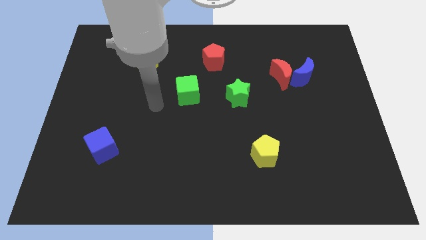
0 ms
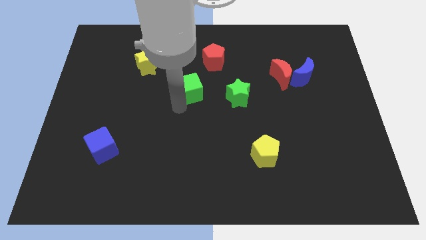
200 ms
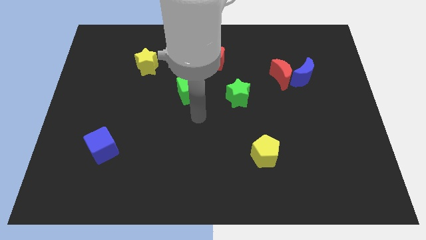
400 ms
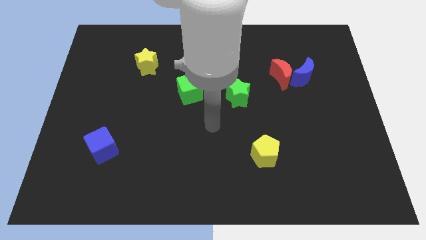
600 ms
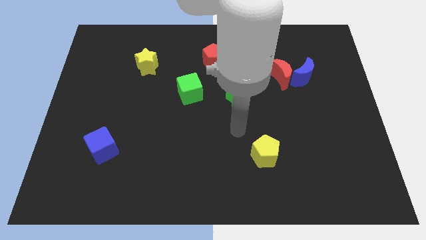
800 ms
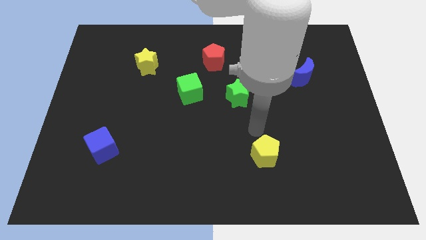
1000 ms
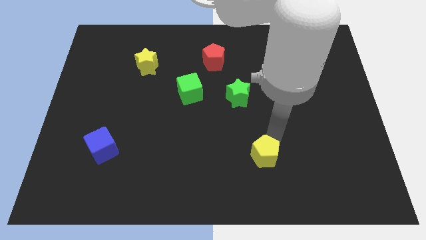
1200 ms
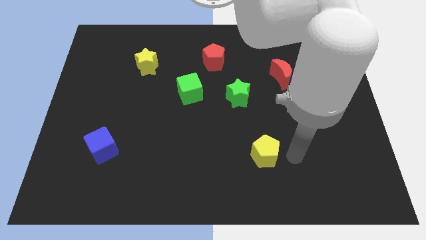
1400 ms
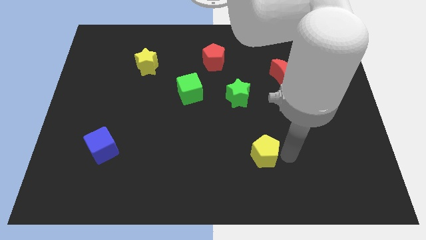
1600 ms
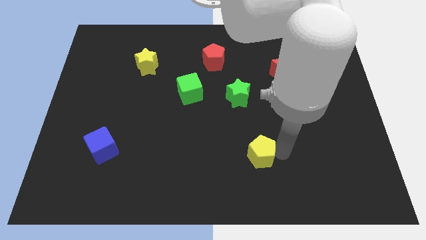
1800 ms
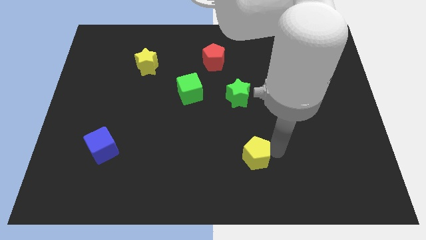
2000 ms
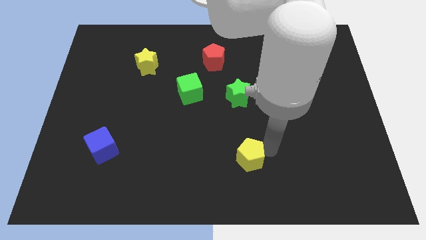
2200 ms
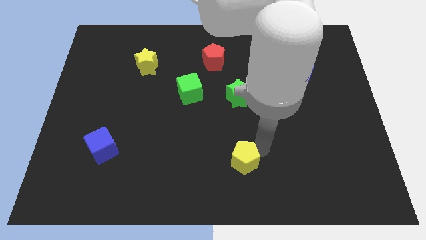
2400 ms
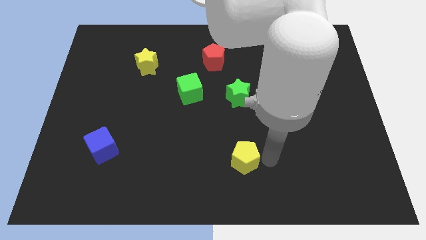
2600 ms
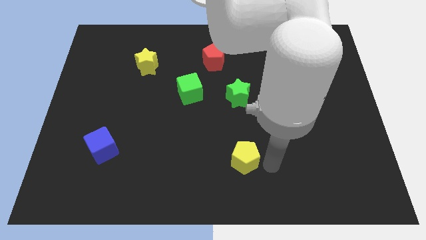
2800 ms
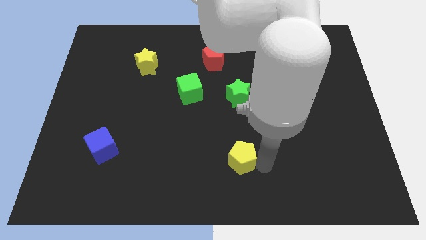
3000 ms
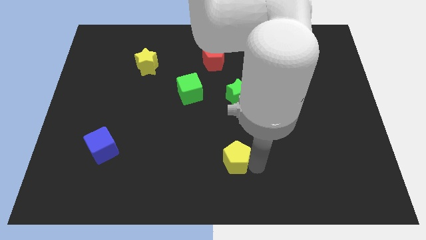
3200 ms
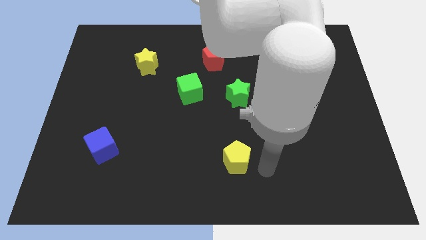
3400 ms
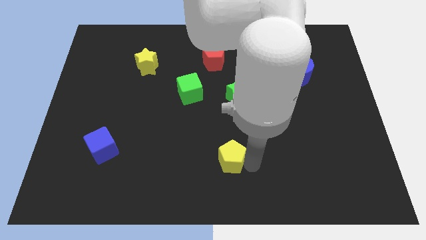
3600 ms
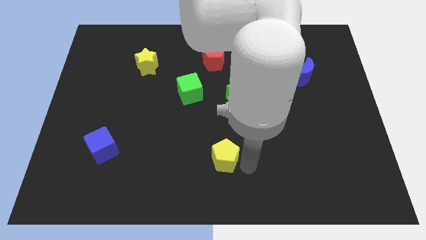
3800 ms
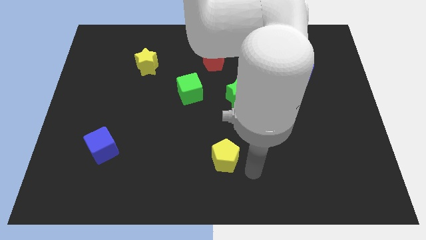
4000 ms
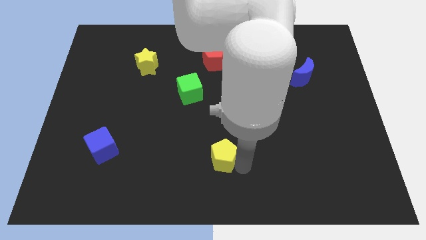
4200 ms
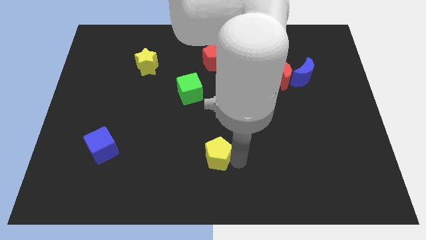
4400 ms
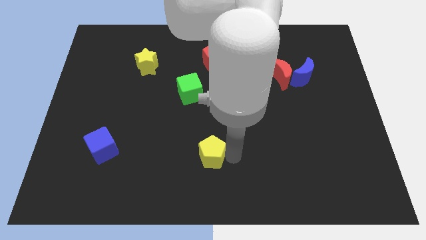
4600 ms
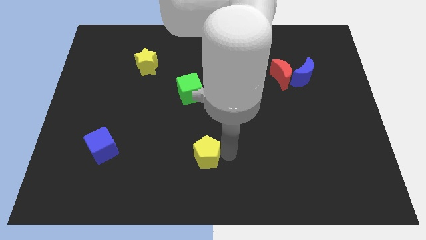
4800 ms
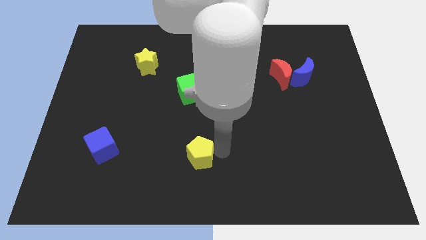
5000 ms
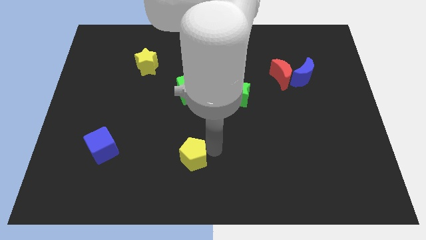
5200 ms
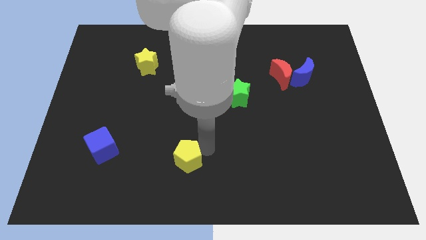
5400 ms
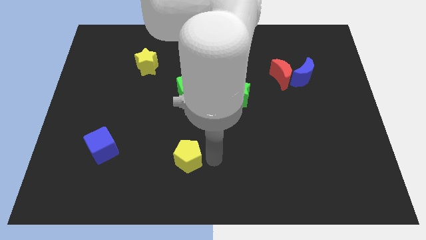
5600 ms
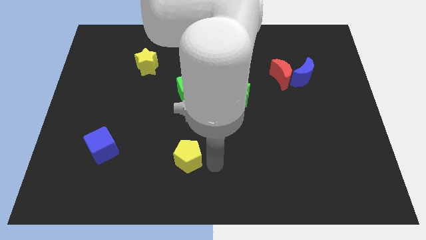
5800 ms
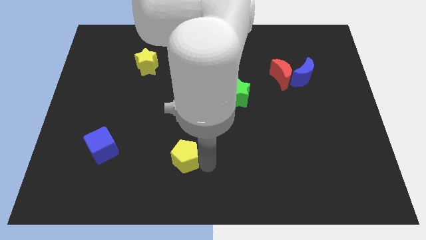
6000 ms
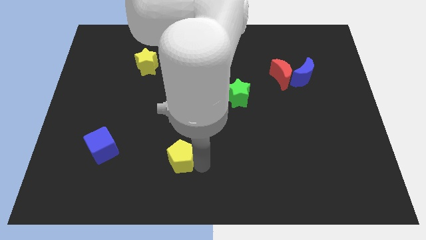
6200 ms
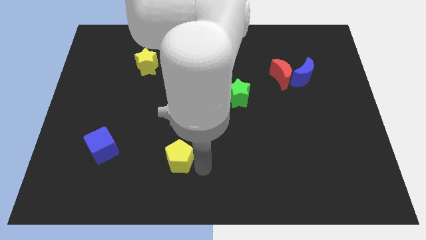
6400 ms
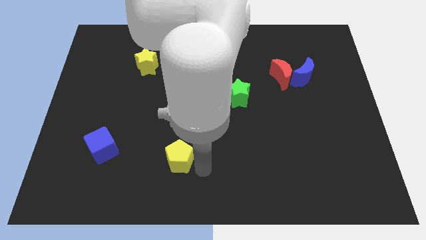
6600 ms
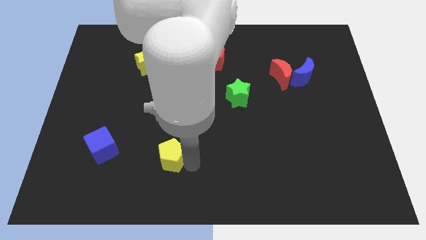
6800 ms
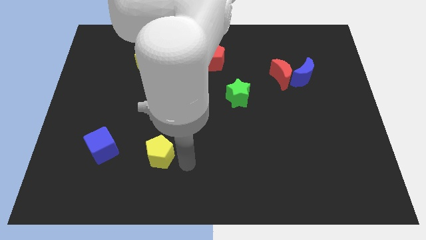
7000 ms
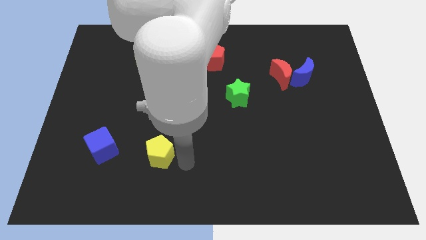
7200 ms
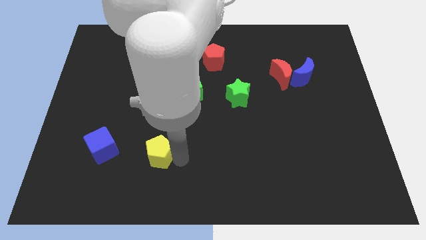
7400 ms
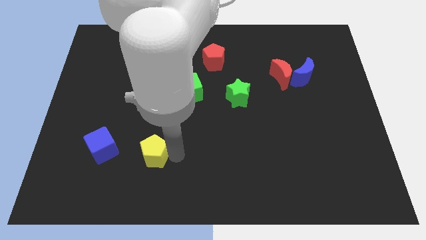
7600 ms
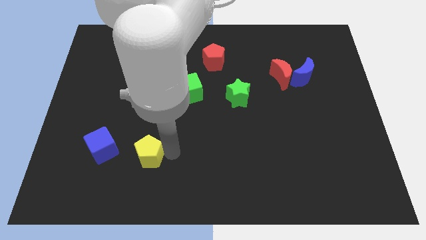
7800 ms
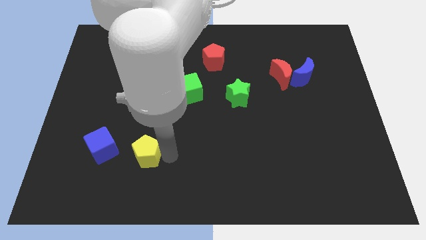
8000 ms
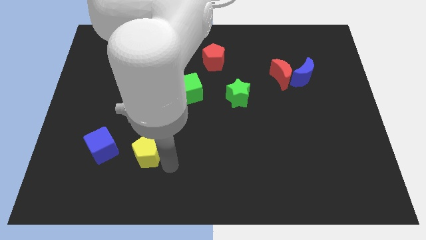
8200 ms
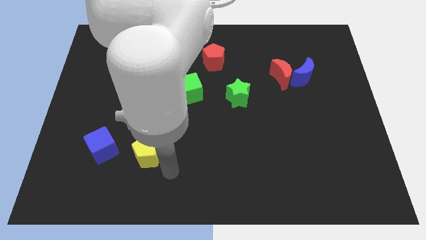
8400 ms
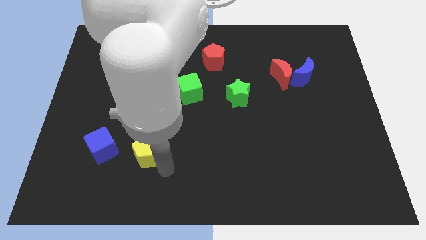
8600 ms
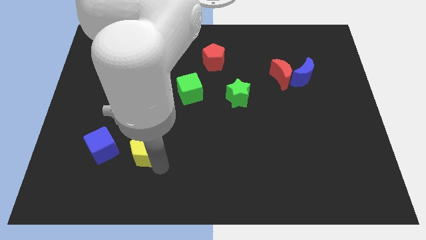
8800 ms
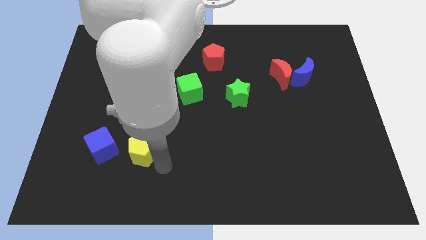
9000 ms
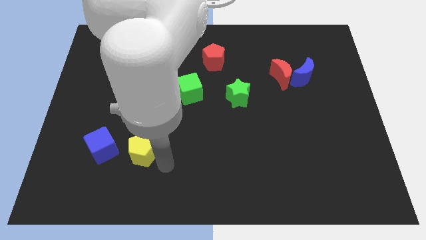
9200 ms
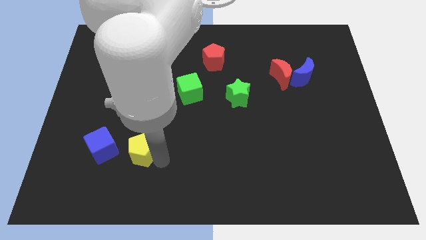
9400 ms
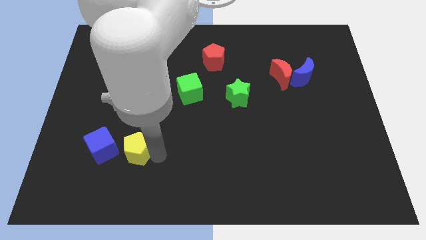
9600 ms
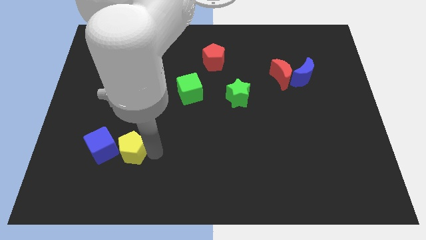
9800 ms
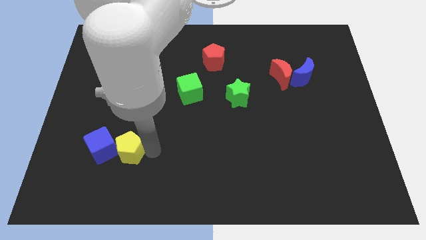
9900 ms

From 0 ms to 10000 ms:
move the yellow pentagon next to the blue cube

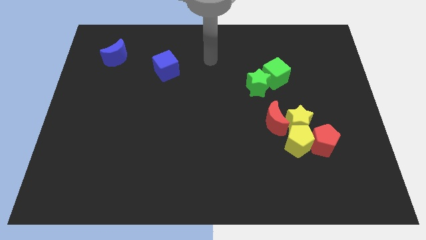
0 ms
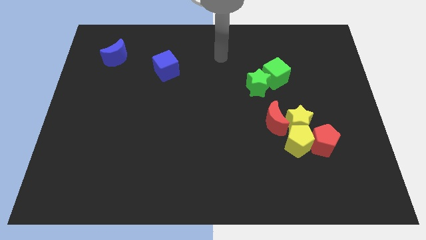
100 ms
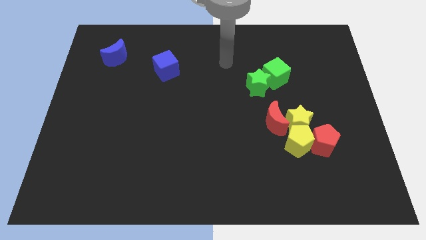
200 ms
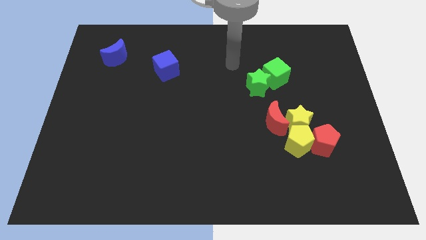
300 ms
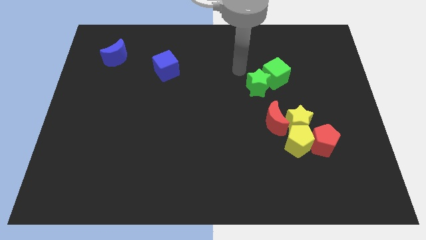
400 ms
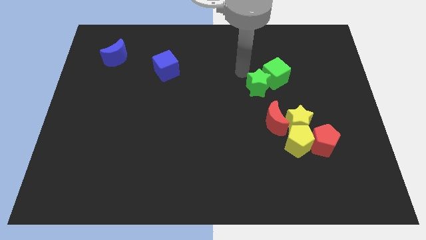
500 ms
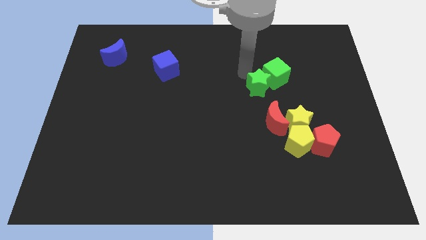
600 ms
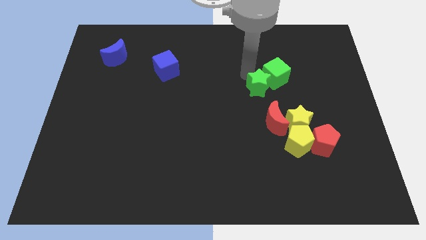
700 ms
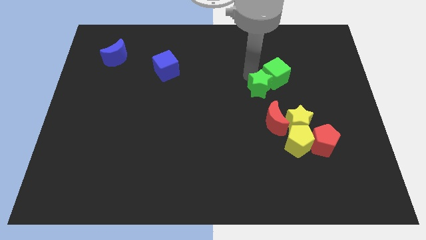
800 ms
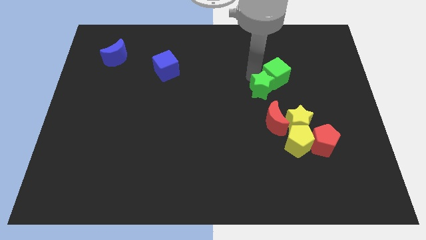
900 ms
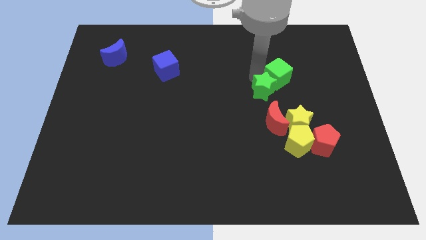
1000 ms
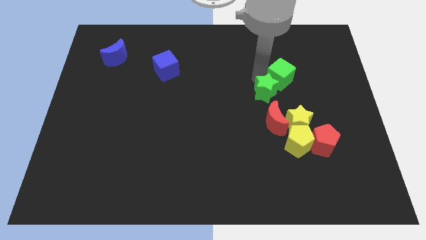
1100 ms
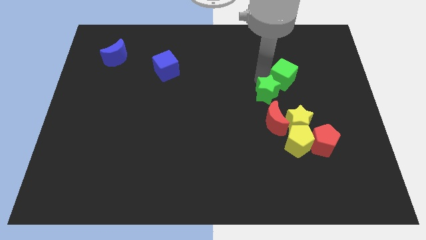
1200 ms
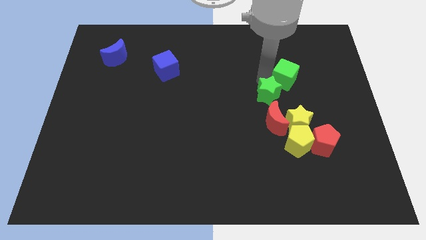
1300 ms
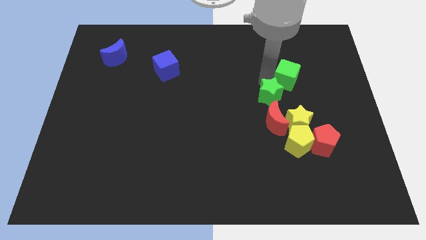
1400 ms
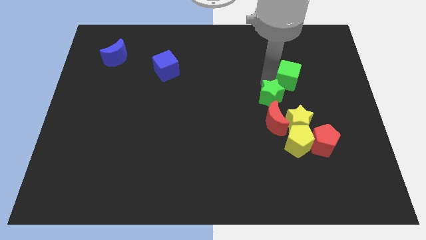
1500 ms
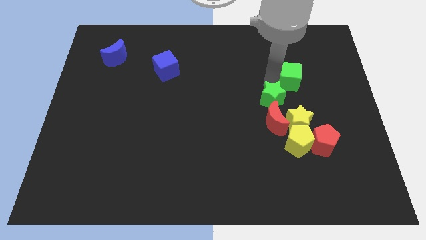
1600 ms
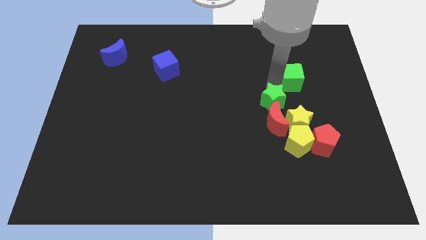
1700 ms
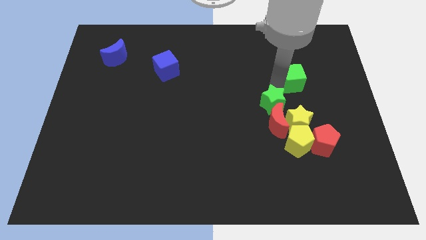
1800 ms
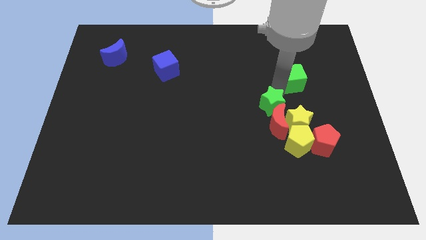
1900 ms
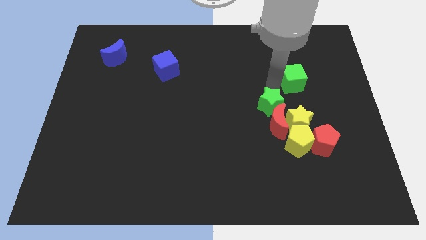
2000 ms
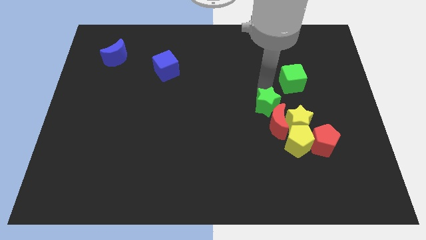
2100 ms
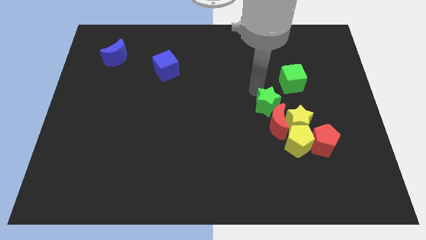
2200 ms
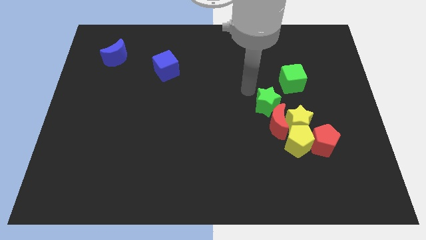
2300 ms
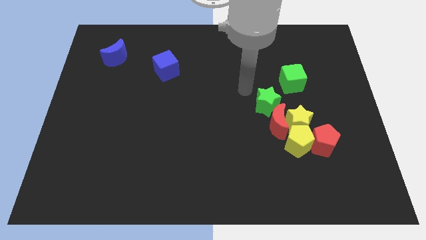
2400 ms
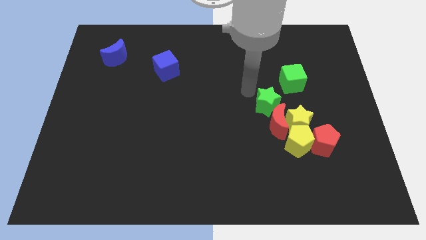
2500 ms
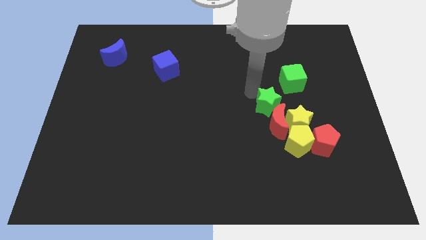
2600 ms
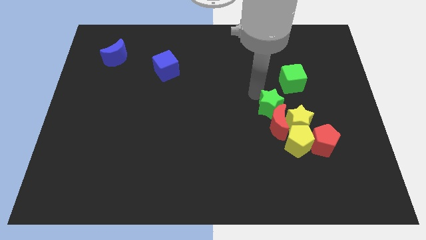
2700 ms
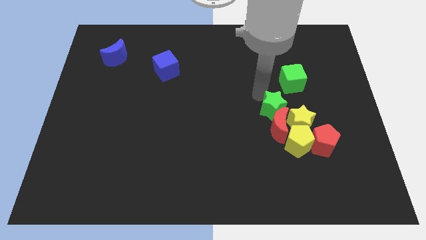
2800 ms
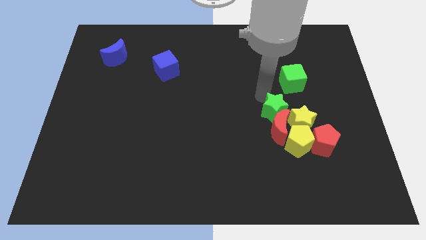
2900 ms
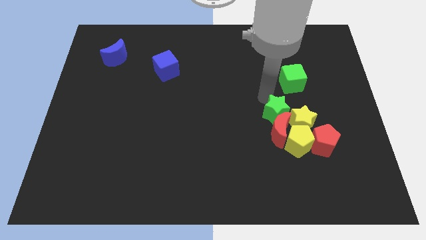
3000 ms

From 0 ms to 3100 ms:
move the green star close to the yellow star
